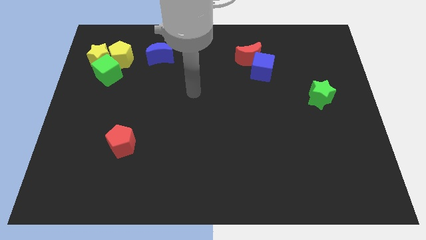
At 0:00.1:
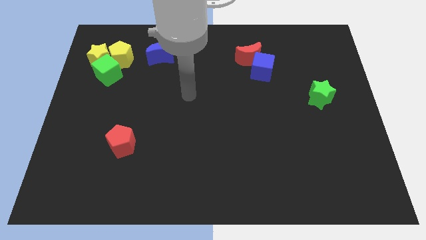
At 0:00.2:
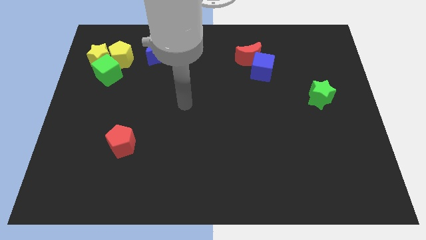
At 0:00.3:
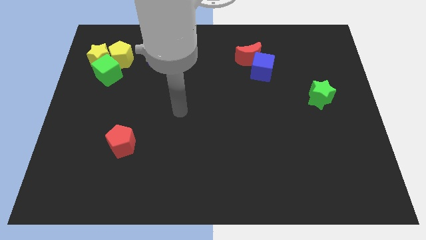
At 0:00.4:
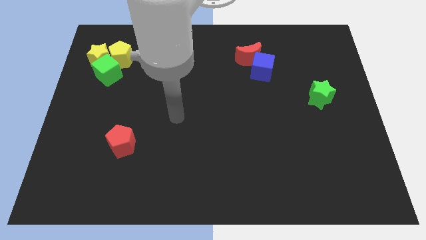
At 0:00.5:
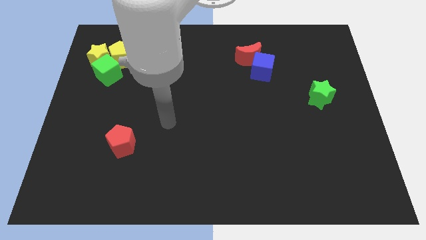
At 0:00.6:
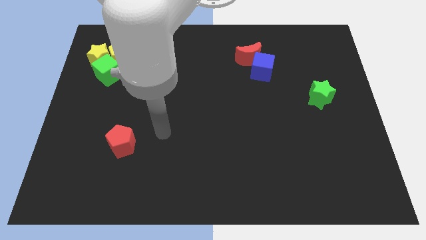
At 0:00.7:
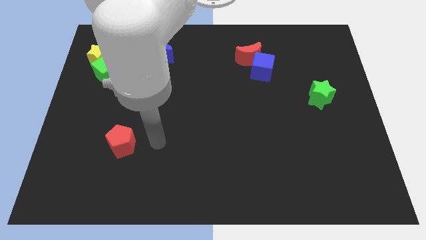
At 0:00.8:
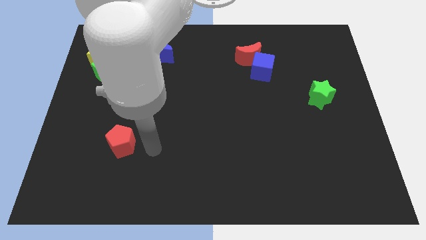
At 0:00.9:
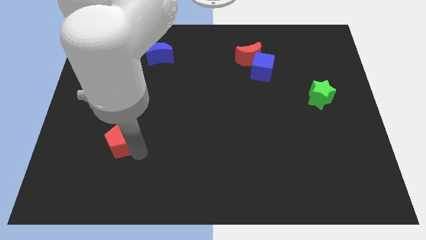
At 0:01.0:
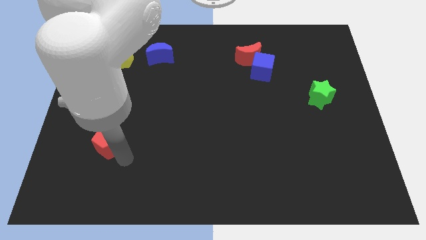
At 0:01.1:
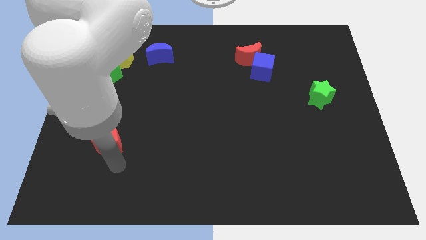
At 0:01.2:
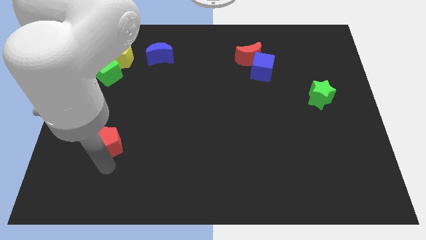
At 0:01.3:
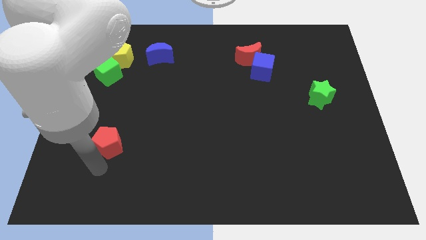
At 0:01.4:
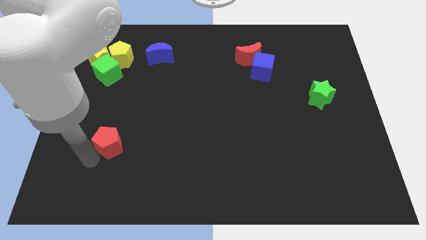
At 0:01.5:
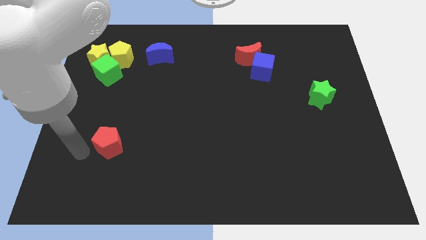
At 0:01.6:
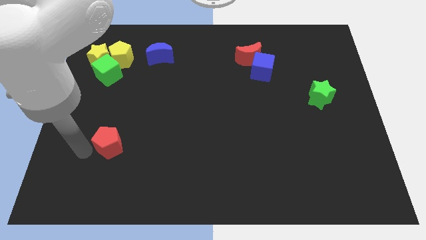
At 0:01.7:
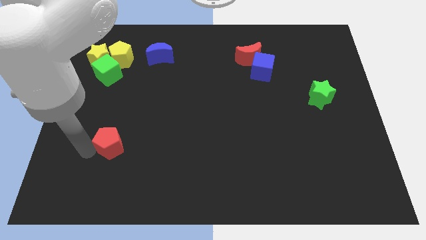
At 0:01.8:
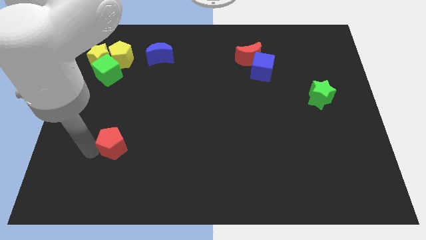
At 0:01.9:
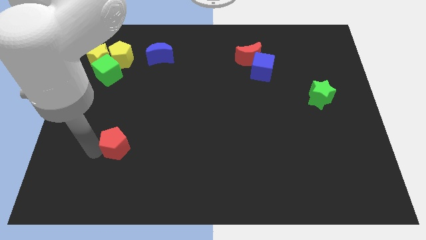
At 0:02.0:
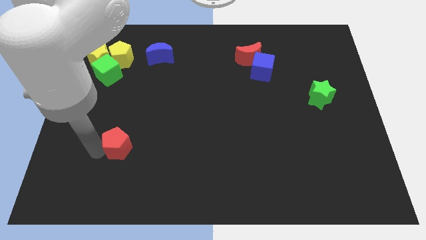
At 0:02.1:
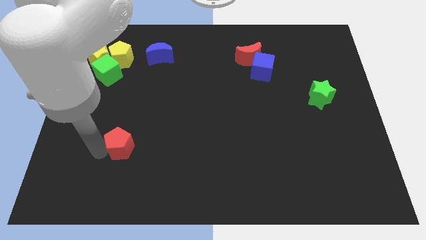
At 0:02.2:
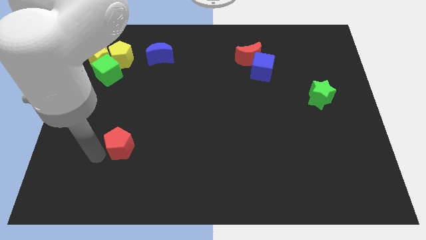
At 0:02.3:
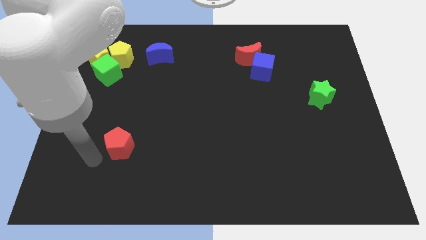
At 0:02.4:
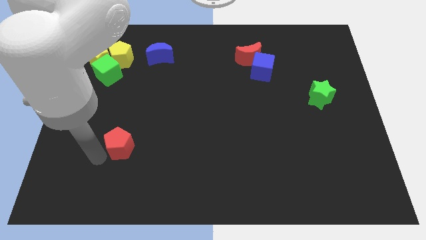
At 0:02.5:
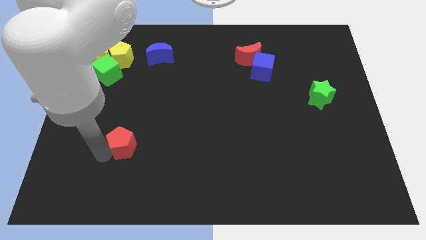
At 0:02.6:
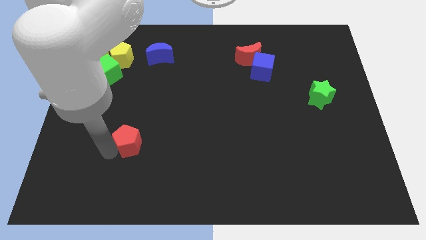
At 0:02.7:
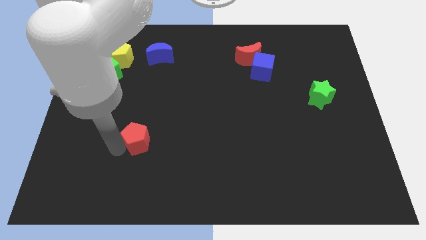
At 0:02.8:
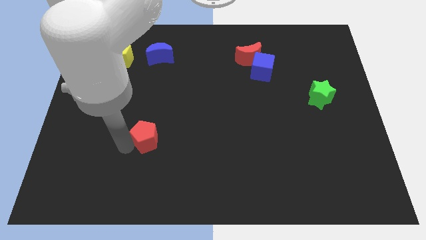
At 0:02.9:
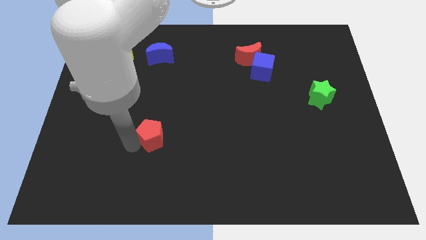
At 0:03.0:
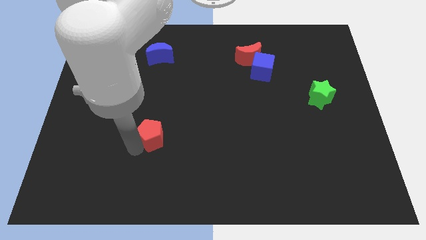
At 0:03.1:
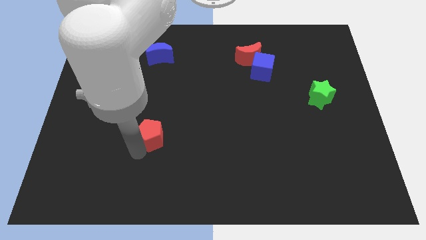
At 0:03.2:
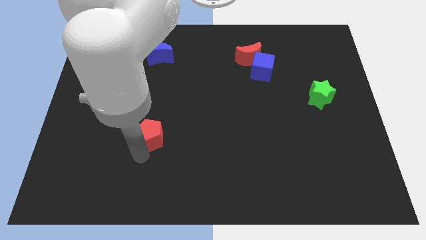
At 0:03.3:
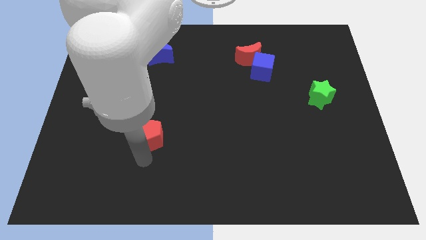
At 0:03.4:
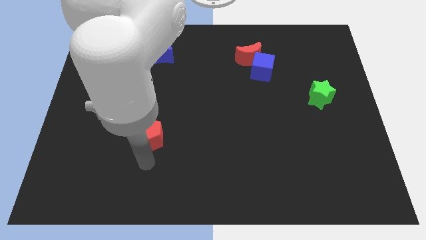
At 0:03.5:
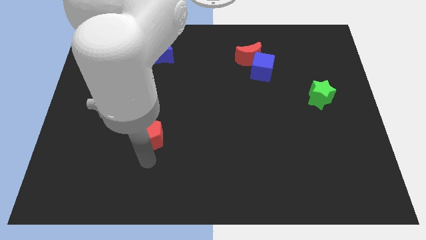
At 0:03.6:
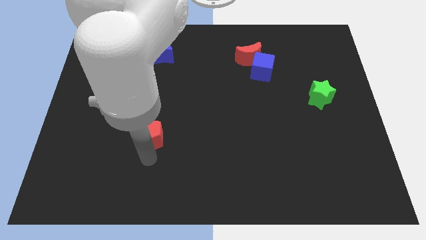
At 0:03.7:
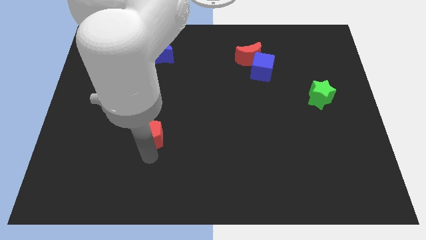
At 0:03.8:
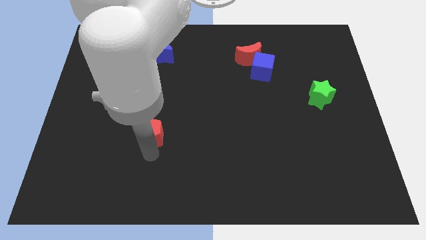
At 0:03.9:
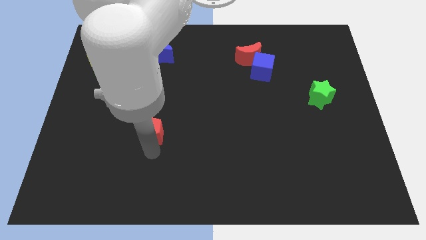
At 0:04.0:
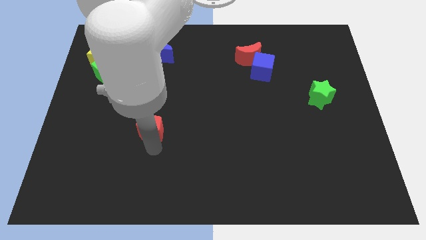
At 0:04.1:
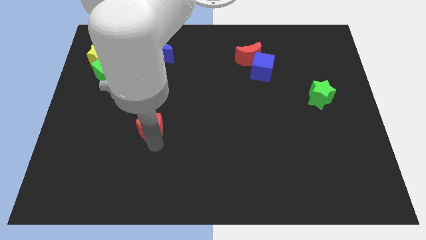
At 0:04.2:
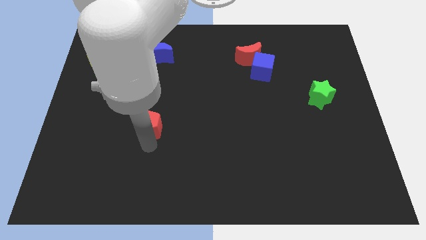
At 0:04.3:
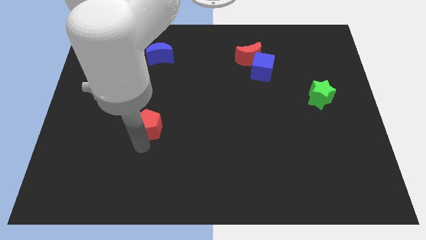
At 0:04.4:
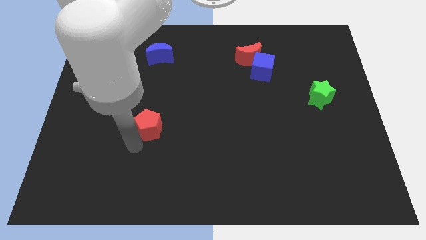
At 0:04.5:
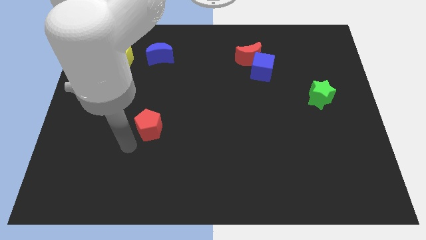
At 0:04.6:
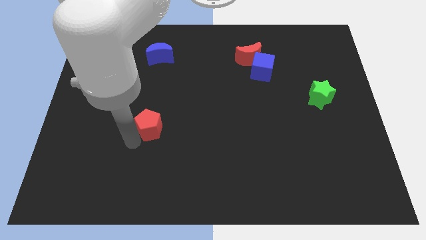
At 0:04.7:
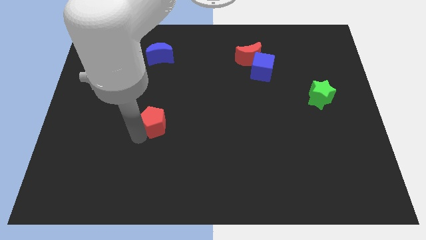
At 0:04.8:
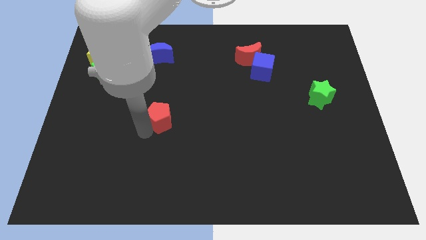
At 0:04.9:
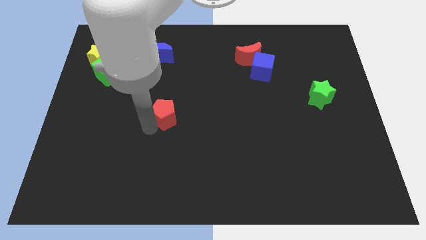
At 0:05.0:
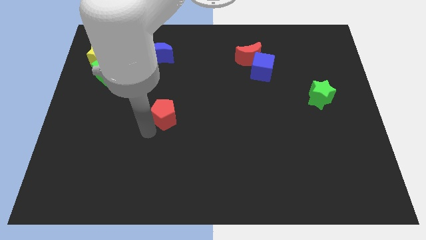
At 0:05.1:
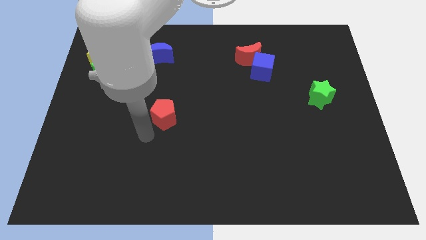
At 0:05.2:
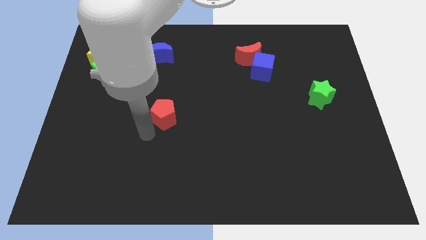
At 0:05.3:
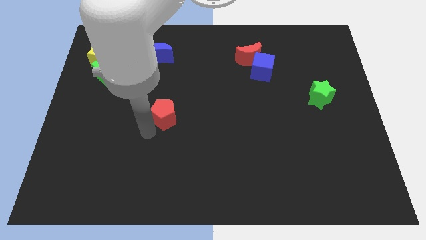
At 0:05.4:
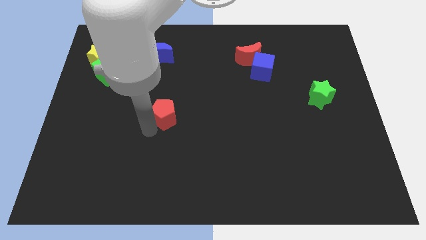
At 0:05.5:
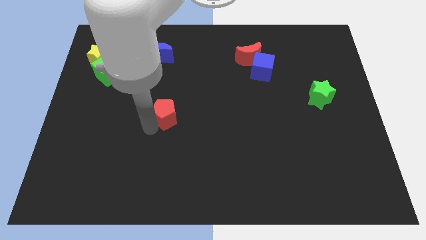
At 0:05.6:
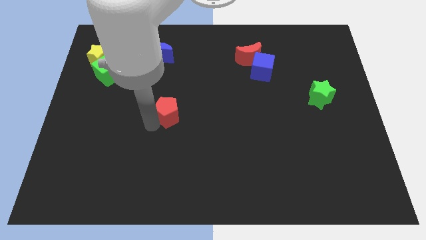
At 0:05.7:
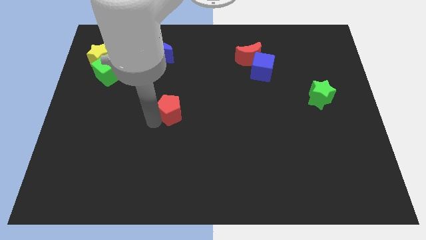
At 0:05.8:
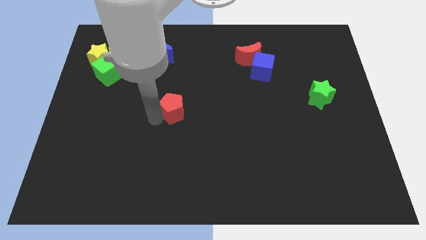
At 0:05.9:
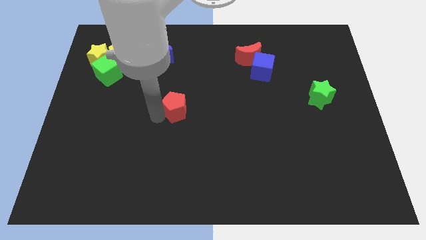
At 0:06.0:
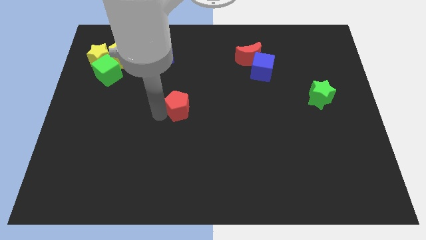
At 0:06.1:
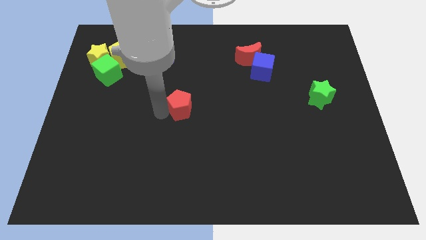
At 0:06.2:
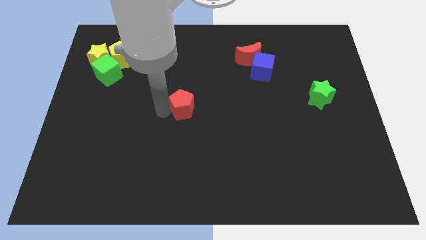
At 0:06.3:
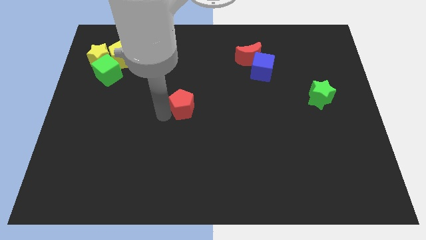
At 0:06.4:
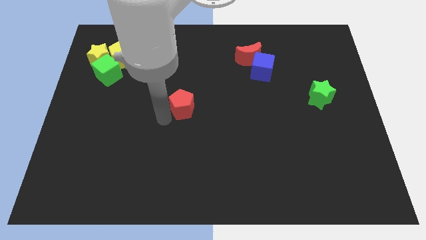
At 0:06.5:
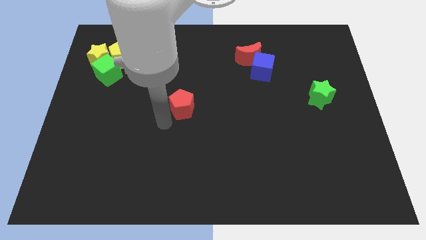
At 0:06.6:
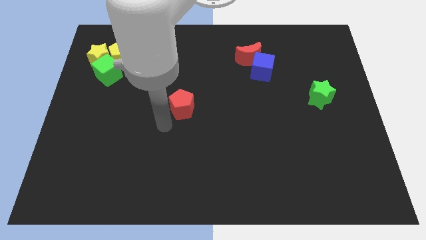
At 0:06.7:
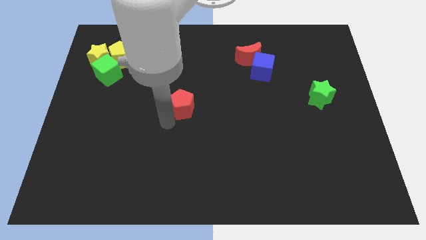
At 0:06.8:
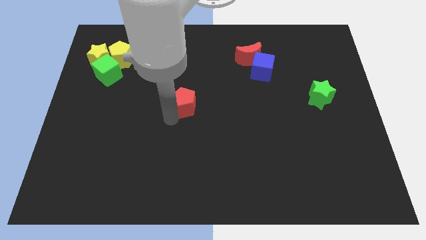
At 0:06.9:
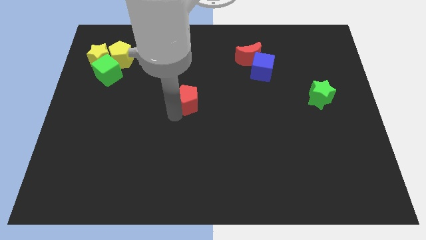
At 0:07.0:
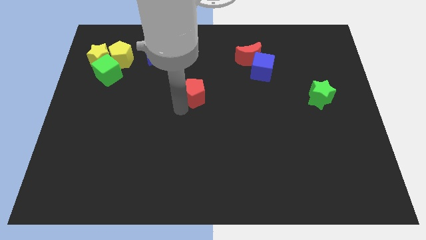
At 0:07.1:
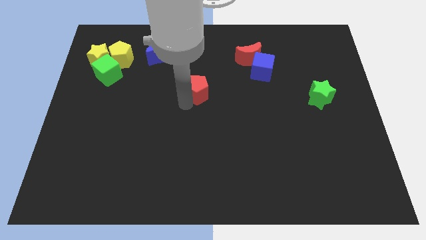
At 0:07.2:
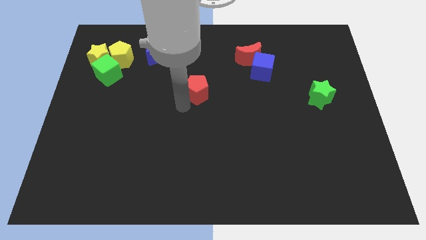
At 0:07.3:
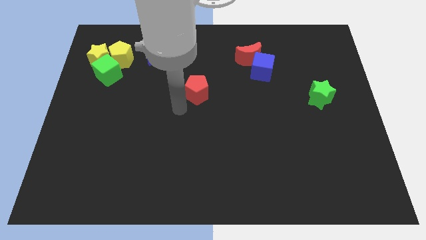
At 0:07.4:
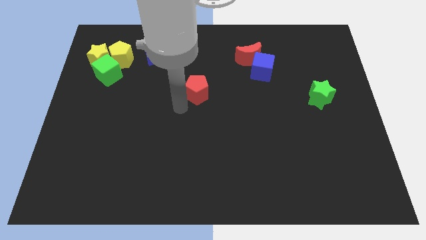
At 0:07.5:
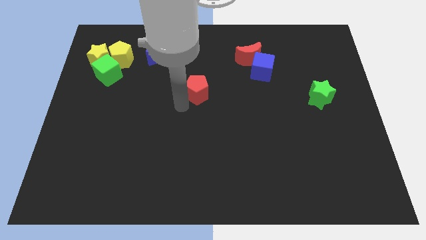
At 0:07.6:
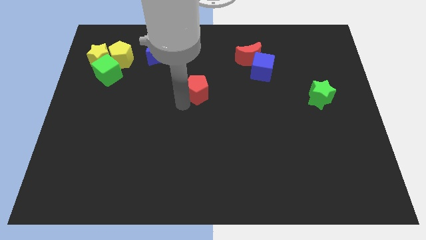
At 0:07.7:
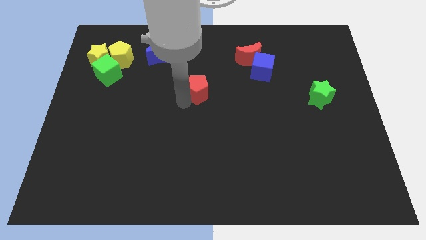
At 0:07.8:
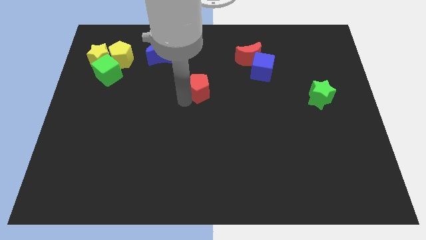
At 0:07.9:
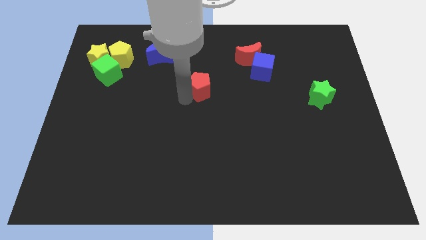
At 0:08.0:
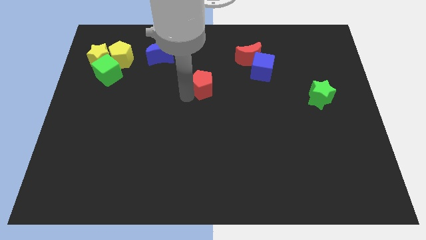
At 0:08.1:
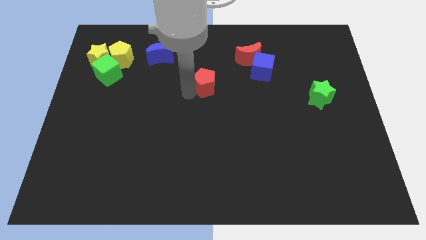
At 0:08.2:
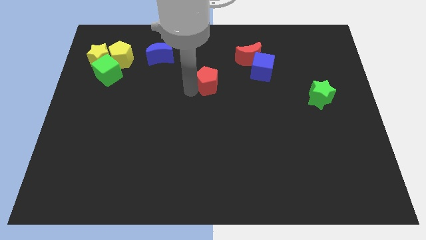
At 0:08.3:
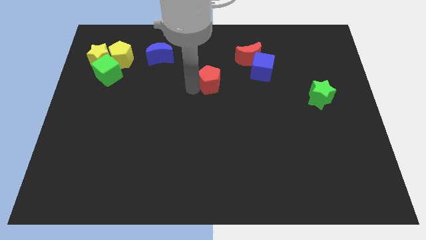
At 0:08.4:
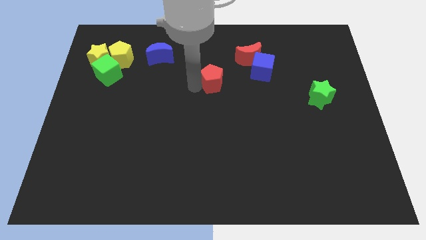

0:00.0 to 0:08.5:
slide the red pentagon diagonally down and to the left of the red moon
